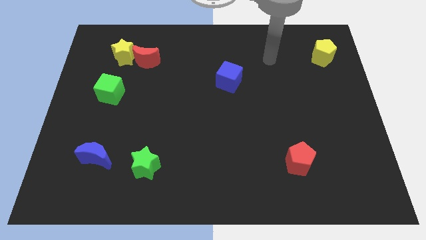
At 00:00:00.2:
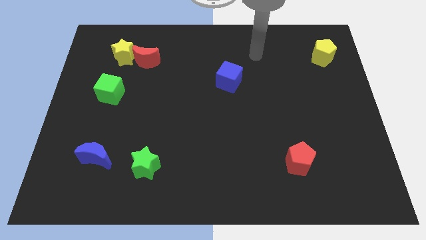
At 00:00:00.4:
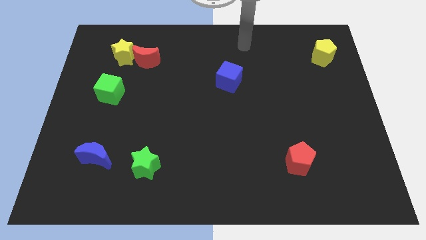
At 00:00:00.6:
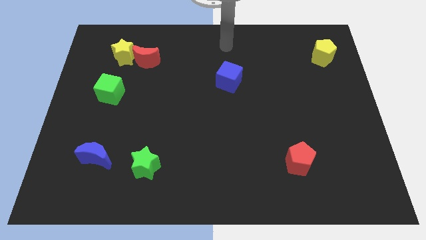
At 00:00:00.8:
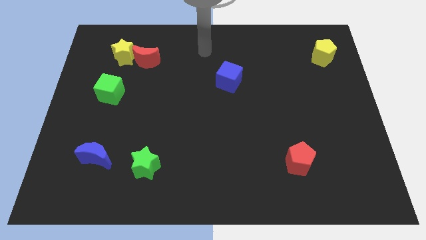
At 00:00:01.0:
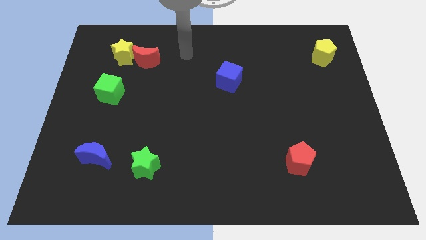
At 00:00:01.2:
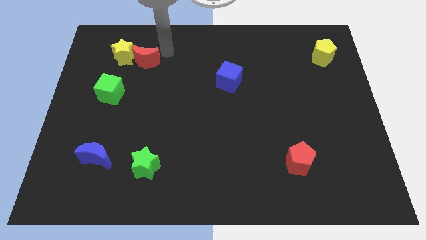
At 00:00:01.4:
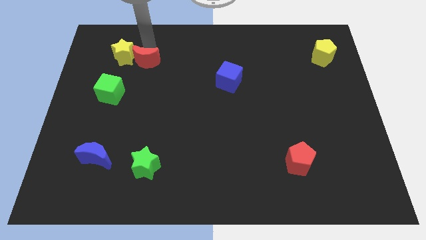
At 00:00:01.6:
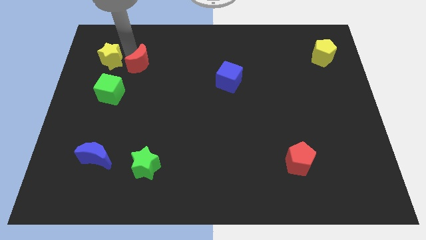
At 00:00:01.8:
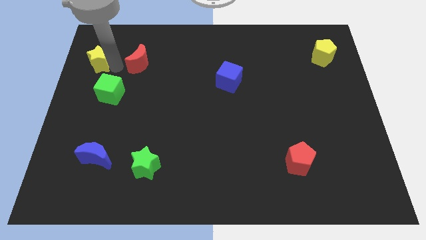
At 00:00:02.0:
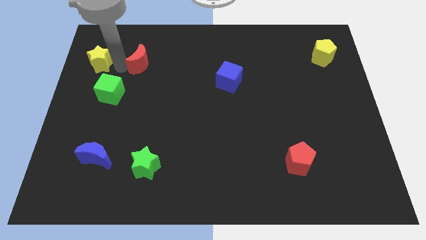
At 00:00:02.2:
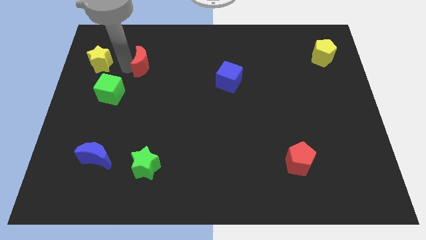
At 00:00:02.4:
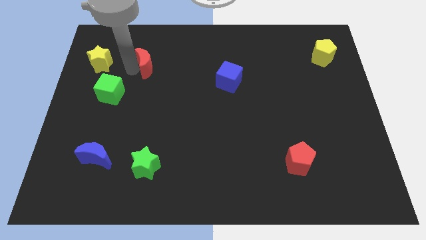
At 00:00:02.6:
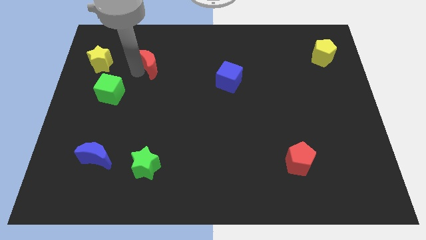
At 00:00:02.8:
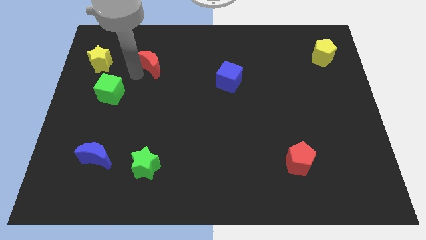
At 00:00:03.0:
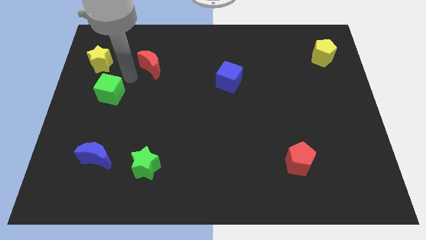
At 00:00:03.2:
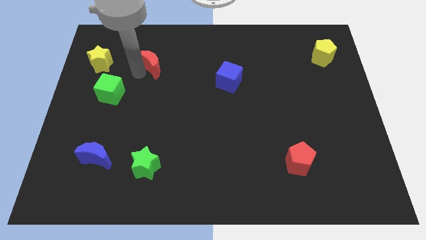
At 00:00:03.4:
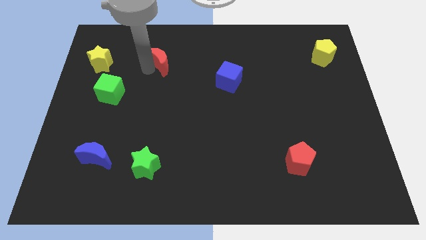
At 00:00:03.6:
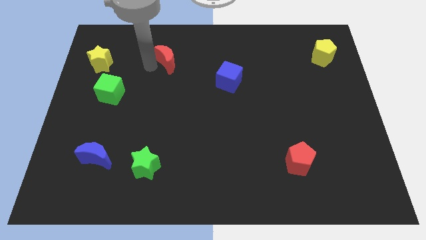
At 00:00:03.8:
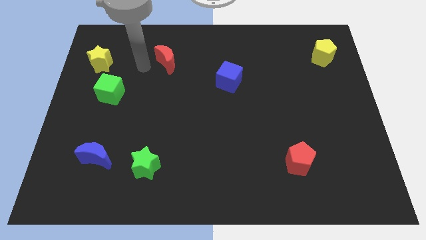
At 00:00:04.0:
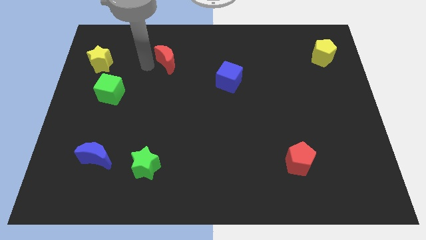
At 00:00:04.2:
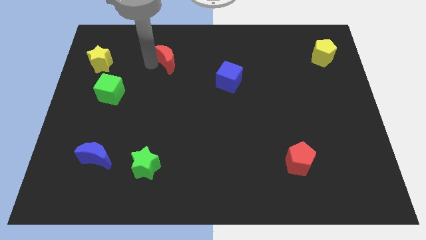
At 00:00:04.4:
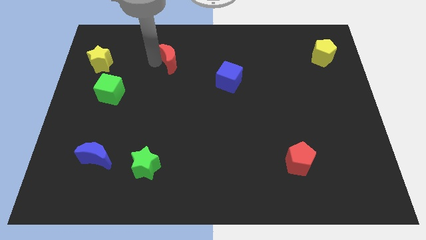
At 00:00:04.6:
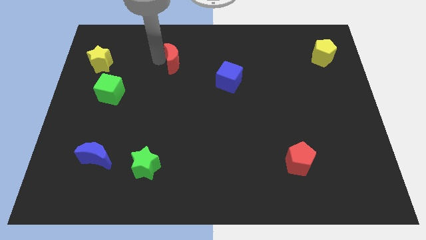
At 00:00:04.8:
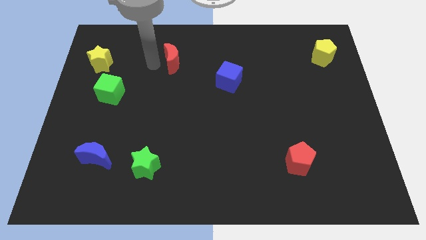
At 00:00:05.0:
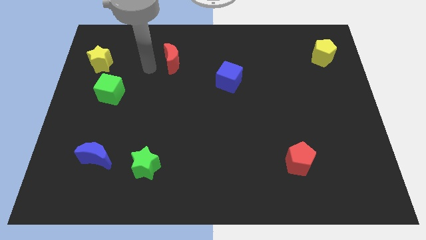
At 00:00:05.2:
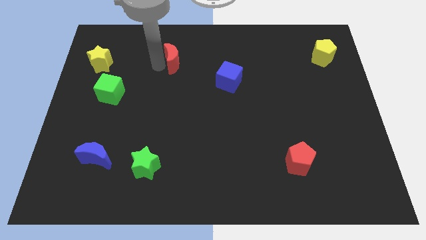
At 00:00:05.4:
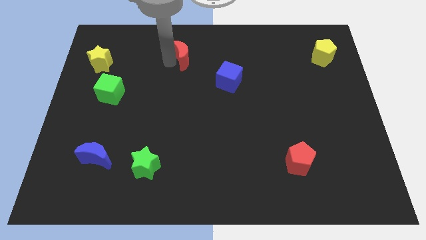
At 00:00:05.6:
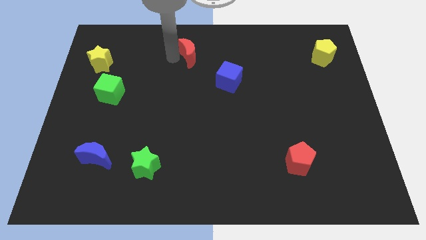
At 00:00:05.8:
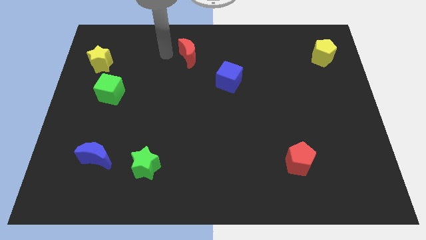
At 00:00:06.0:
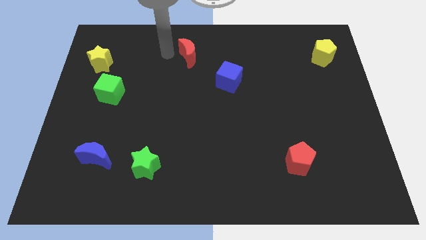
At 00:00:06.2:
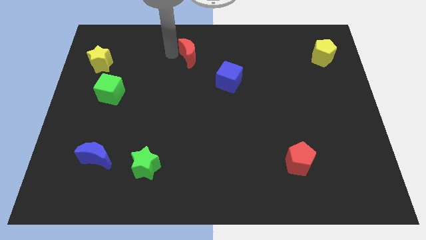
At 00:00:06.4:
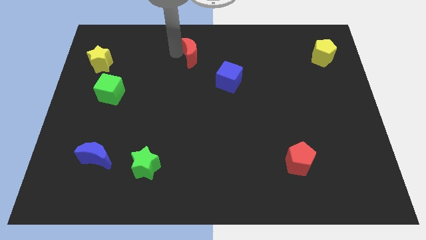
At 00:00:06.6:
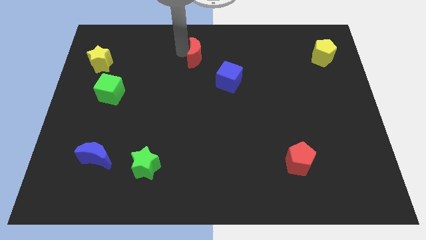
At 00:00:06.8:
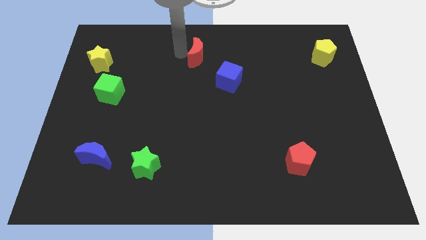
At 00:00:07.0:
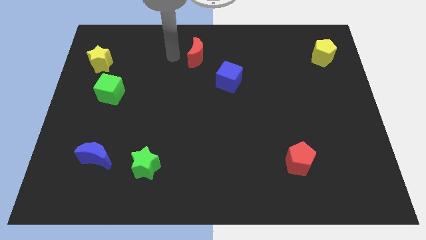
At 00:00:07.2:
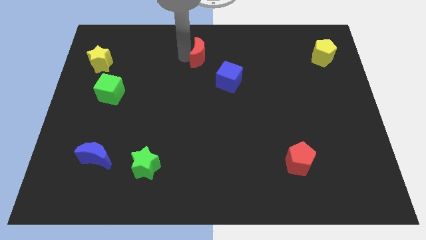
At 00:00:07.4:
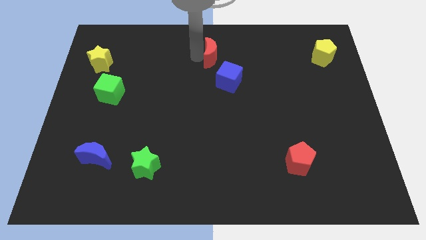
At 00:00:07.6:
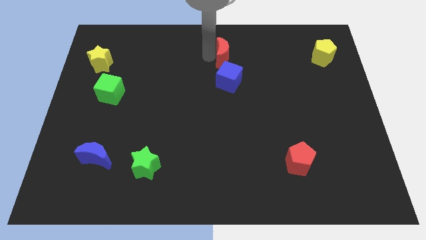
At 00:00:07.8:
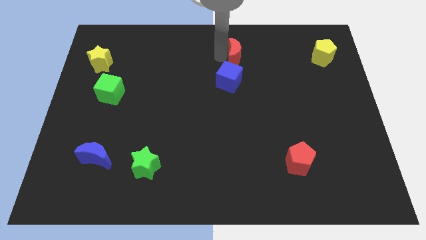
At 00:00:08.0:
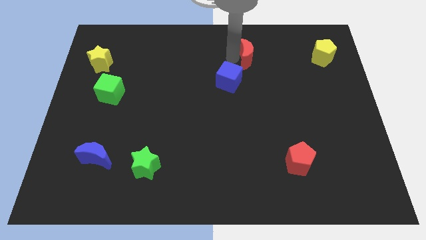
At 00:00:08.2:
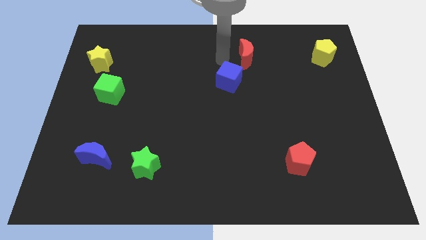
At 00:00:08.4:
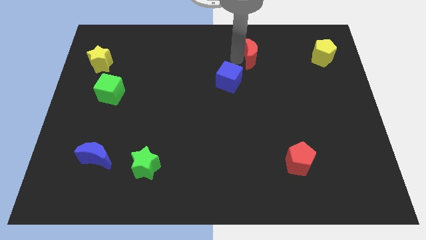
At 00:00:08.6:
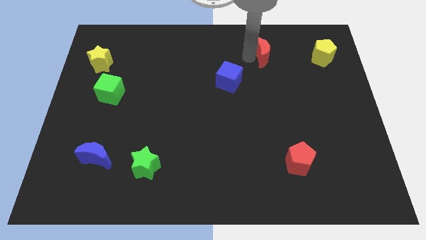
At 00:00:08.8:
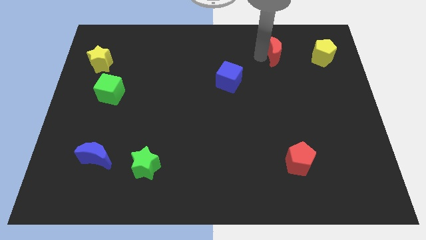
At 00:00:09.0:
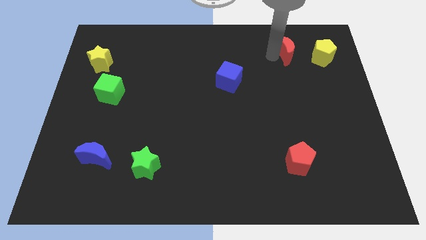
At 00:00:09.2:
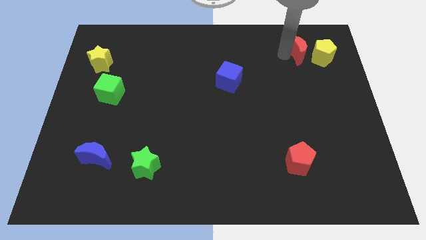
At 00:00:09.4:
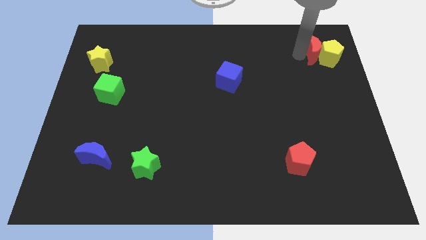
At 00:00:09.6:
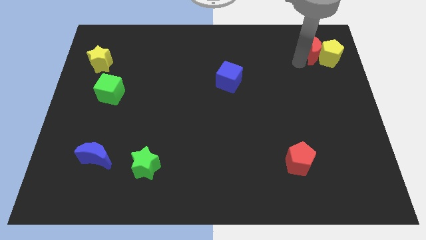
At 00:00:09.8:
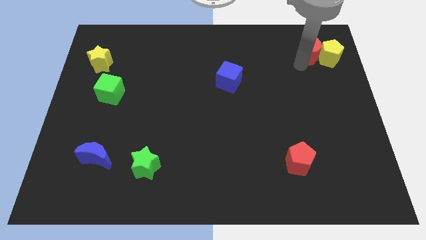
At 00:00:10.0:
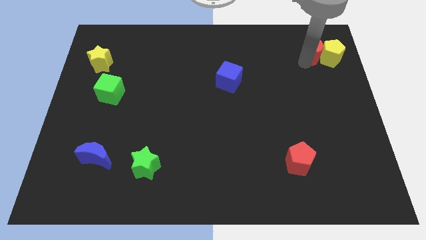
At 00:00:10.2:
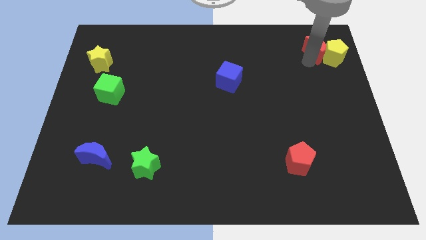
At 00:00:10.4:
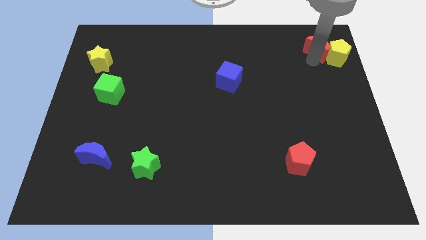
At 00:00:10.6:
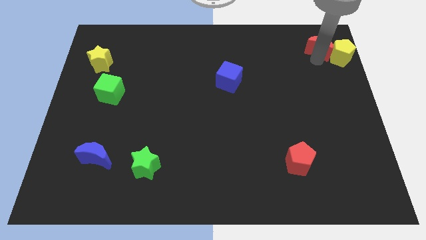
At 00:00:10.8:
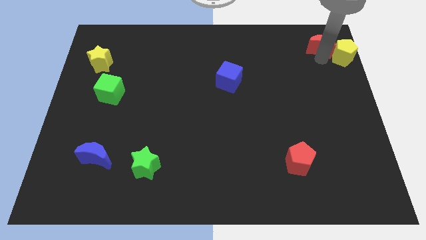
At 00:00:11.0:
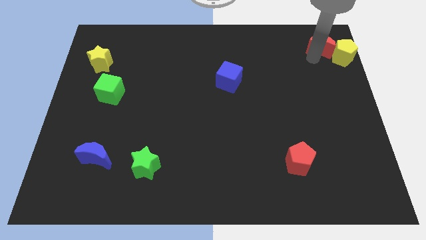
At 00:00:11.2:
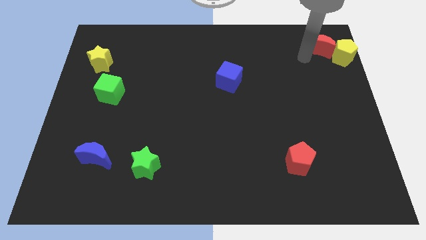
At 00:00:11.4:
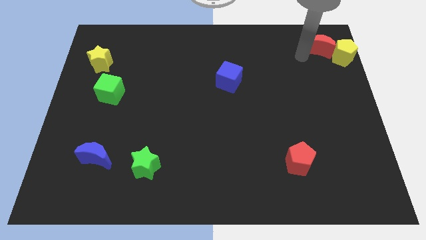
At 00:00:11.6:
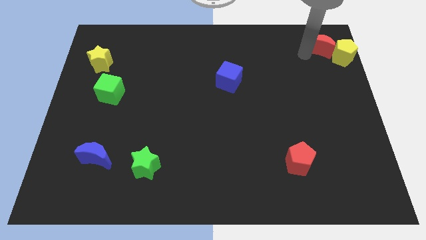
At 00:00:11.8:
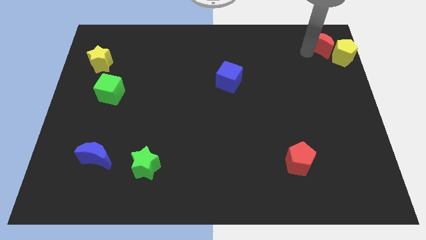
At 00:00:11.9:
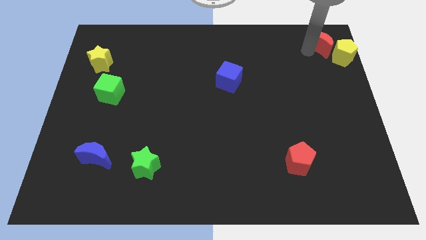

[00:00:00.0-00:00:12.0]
put the red moon to the upper right corner

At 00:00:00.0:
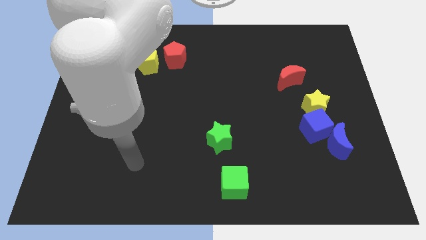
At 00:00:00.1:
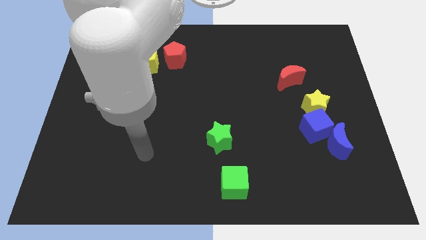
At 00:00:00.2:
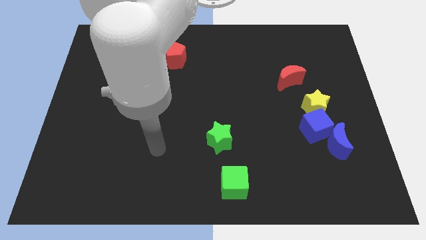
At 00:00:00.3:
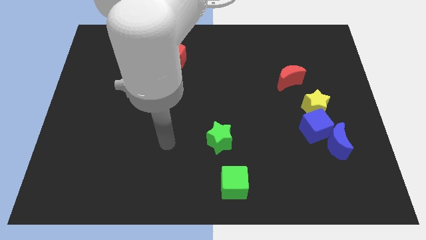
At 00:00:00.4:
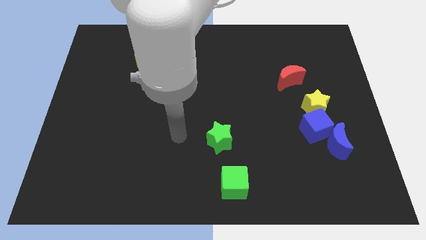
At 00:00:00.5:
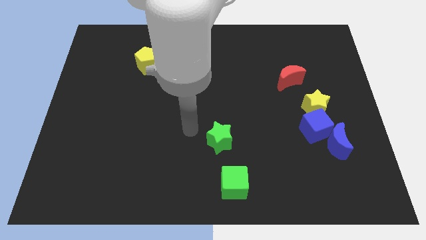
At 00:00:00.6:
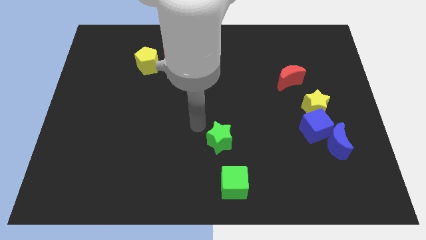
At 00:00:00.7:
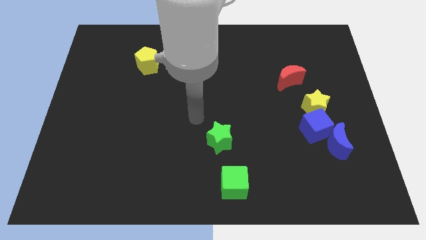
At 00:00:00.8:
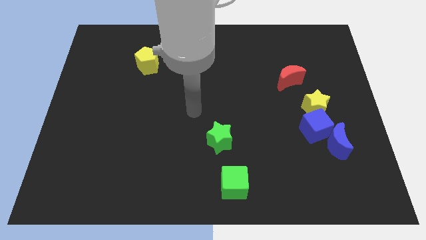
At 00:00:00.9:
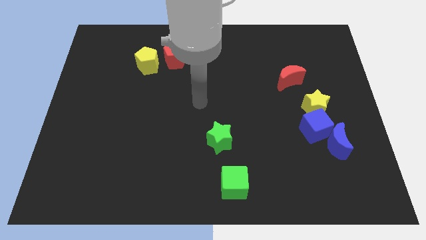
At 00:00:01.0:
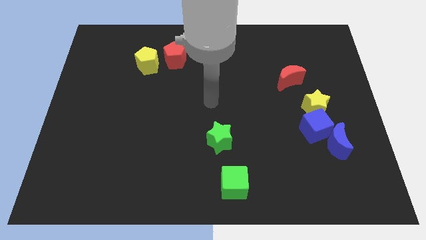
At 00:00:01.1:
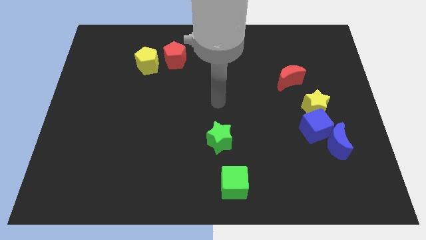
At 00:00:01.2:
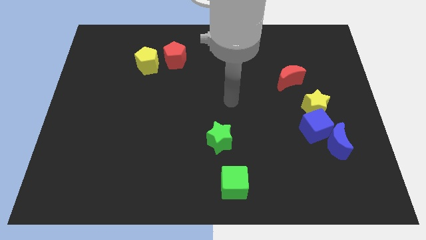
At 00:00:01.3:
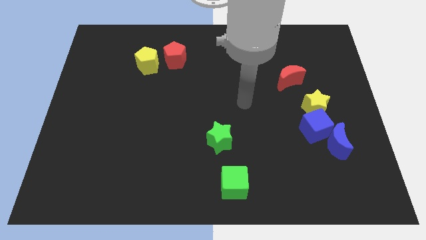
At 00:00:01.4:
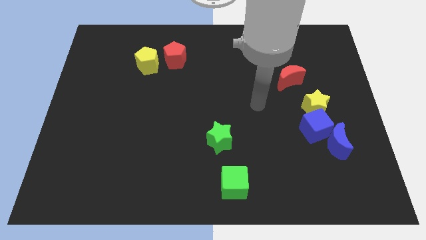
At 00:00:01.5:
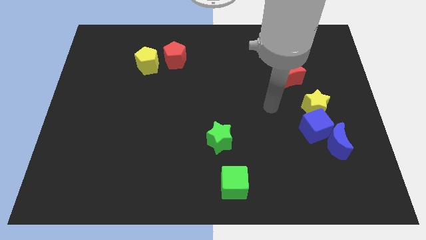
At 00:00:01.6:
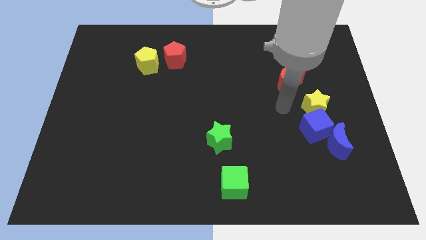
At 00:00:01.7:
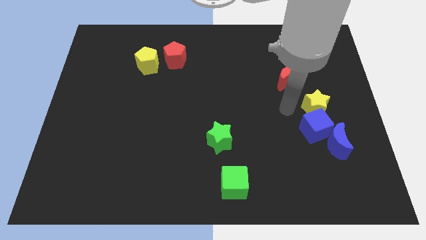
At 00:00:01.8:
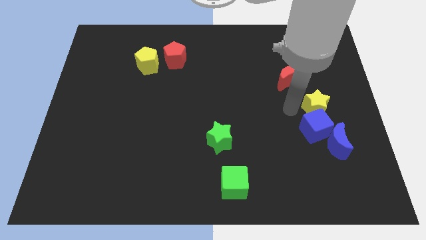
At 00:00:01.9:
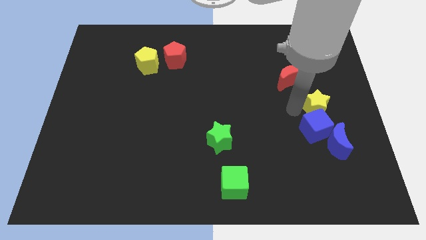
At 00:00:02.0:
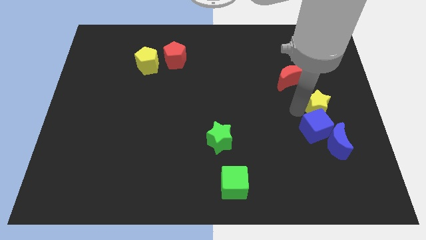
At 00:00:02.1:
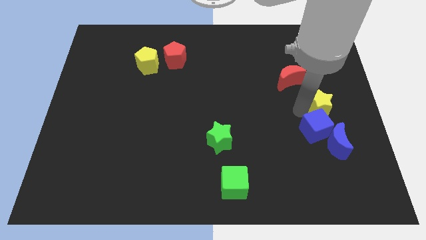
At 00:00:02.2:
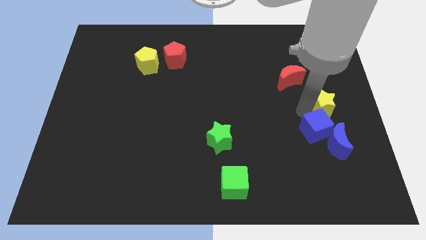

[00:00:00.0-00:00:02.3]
push the yellow star to the right side
